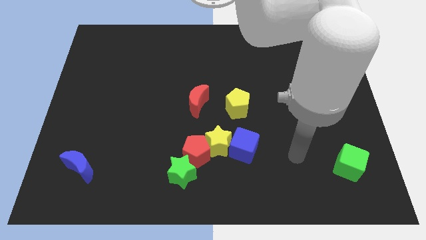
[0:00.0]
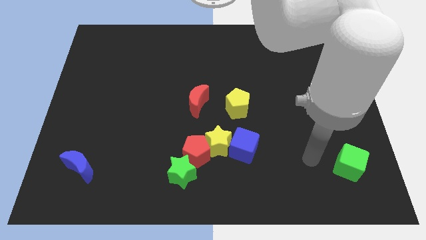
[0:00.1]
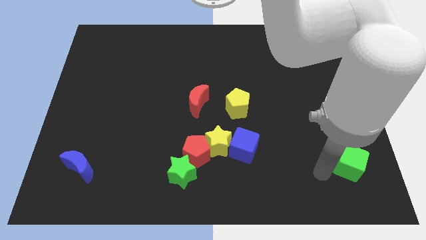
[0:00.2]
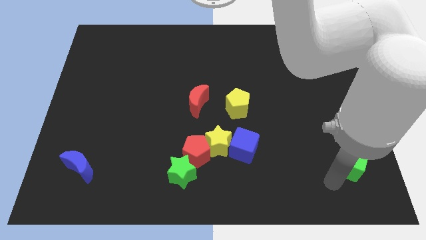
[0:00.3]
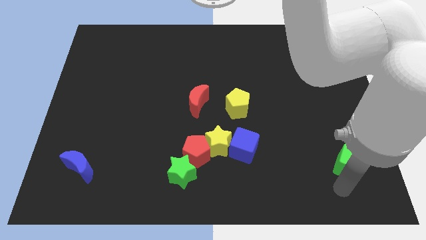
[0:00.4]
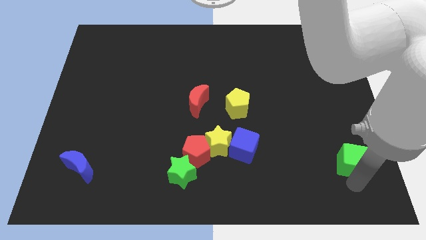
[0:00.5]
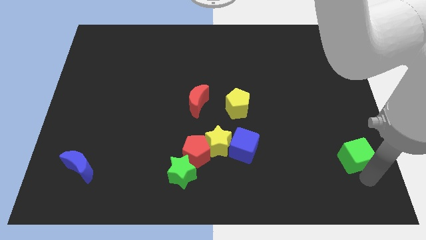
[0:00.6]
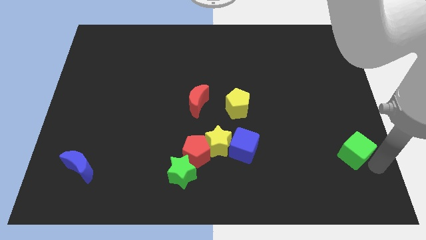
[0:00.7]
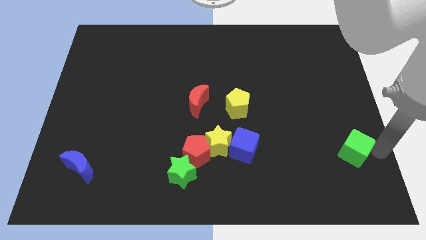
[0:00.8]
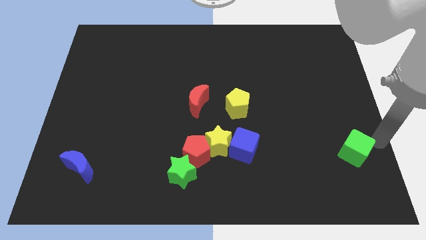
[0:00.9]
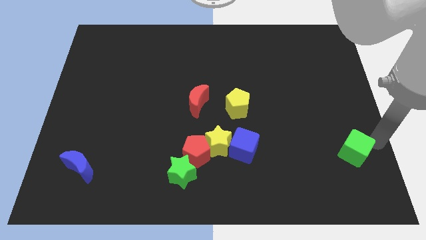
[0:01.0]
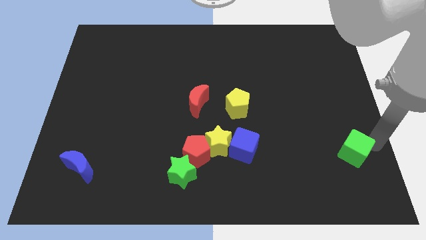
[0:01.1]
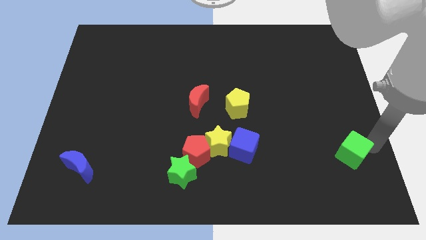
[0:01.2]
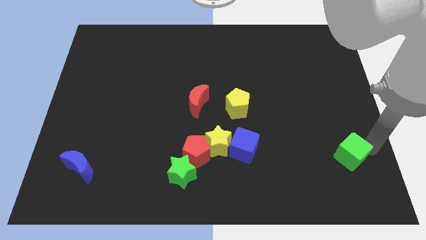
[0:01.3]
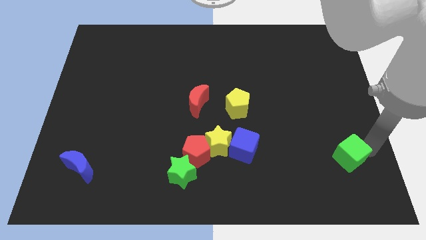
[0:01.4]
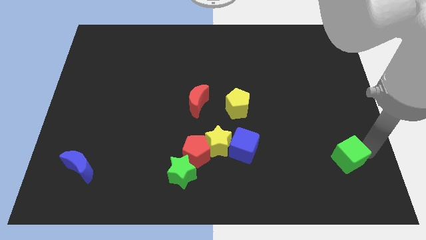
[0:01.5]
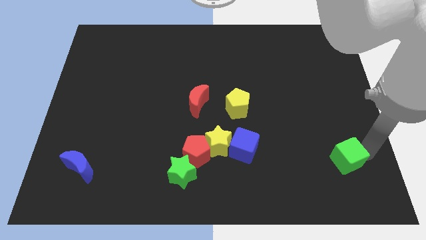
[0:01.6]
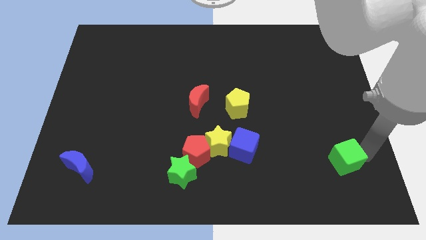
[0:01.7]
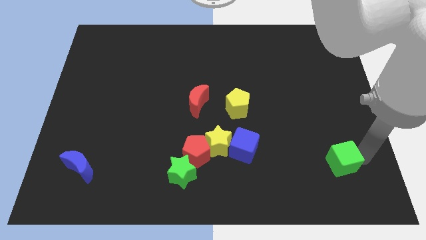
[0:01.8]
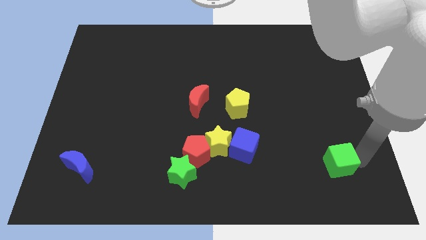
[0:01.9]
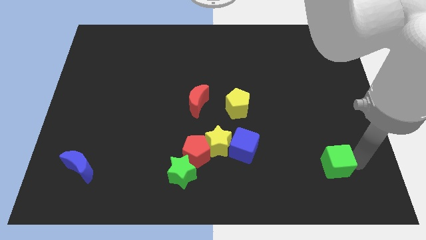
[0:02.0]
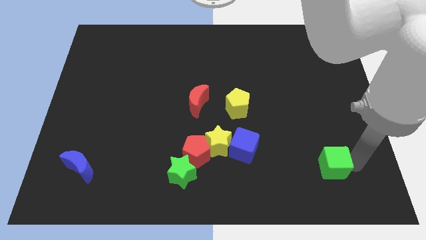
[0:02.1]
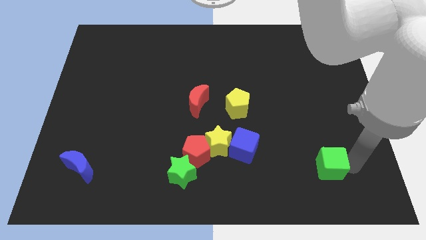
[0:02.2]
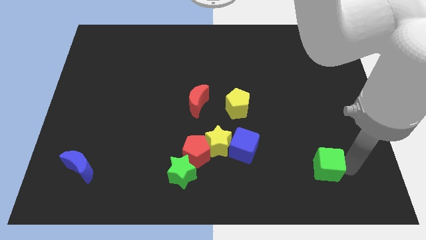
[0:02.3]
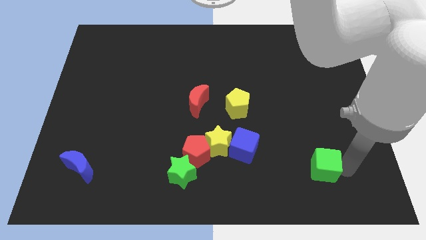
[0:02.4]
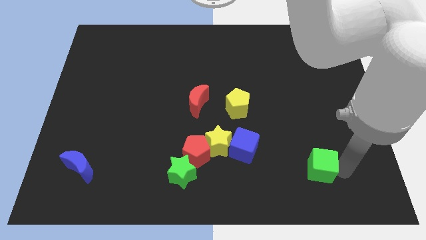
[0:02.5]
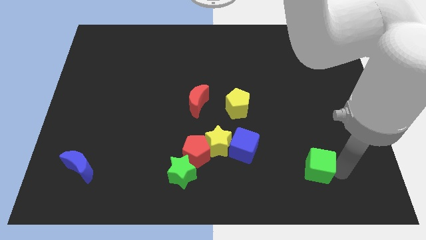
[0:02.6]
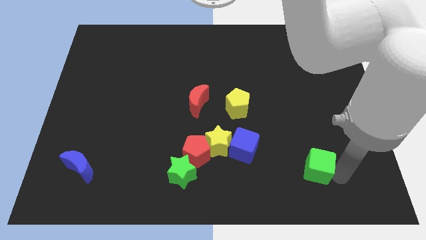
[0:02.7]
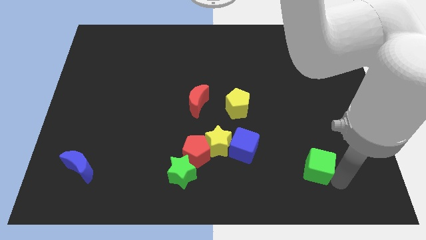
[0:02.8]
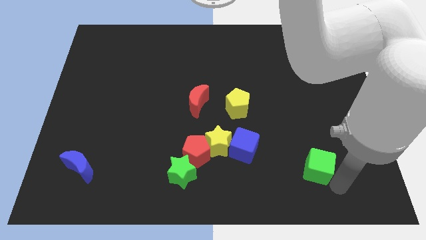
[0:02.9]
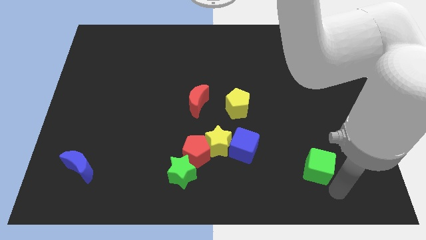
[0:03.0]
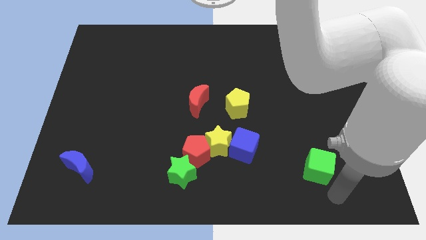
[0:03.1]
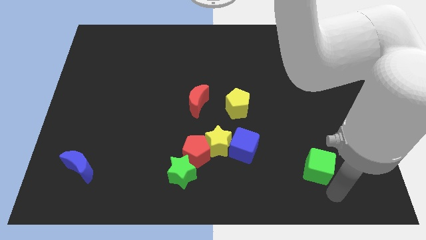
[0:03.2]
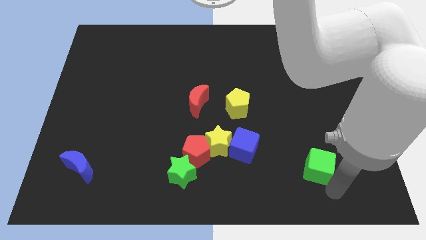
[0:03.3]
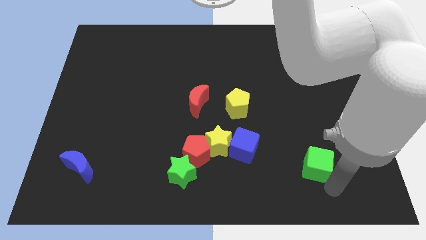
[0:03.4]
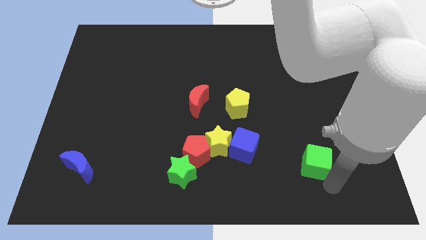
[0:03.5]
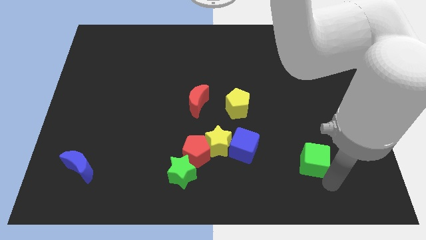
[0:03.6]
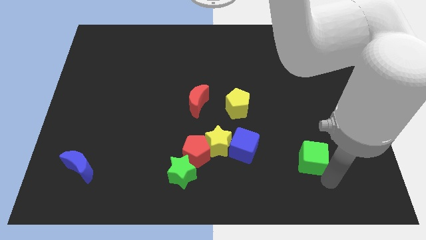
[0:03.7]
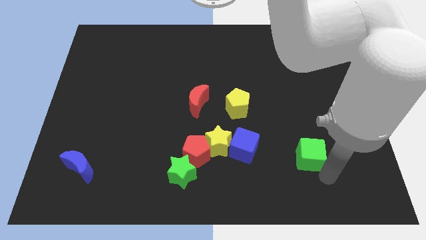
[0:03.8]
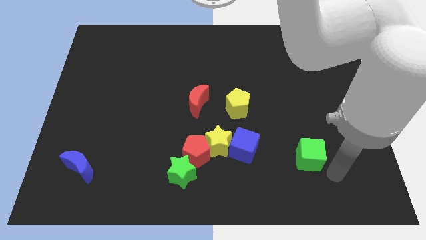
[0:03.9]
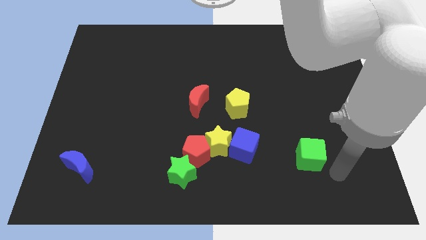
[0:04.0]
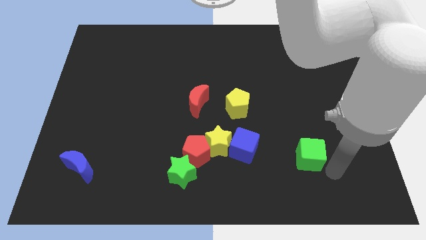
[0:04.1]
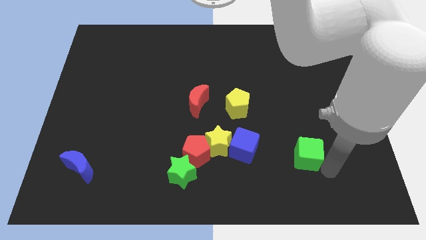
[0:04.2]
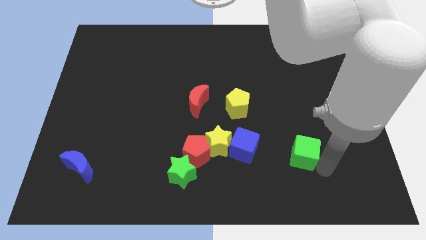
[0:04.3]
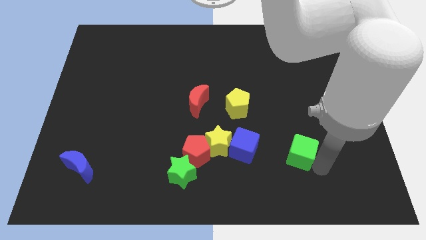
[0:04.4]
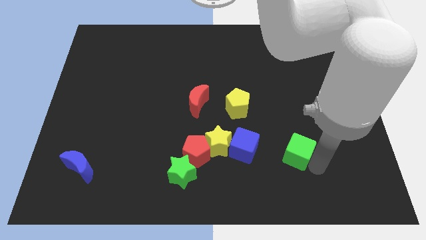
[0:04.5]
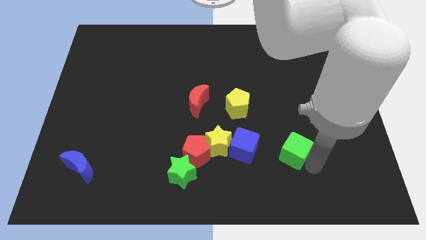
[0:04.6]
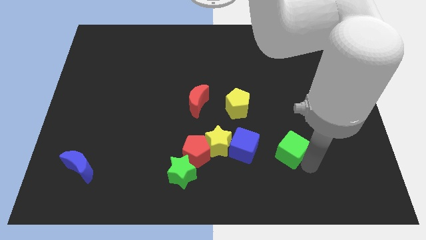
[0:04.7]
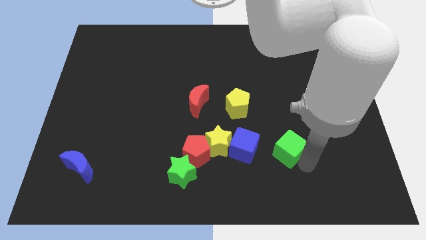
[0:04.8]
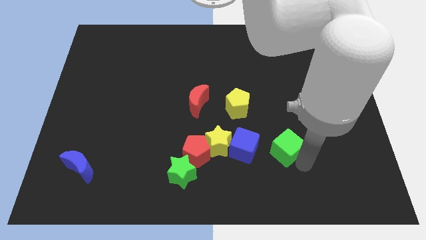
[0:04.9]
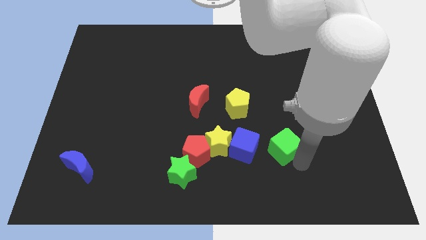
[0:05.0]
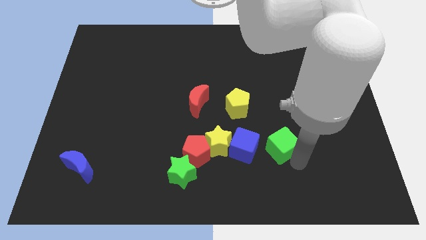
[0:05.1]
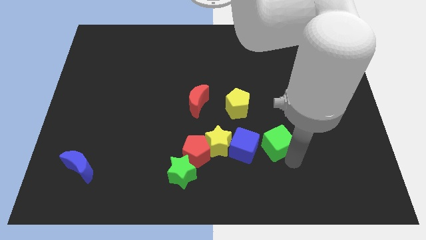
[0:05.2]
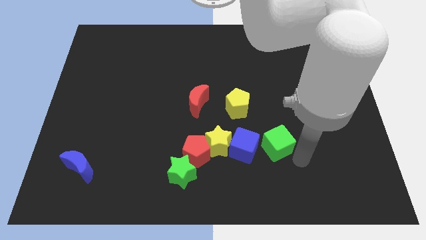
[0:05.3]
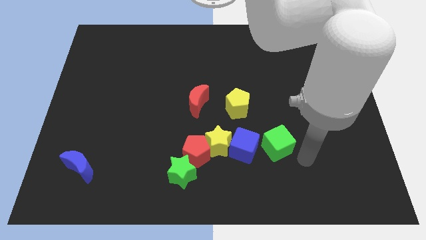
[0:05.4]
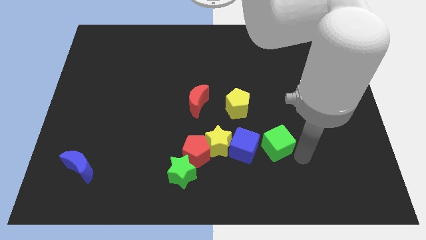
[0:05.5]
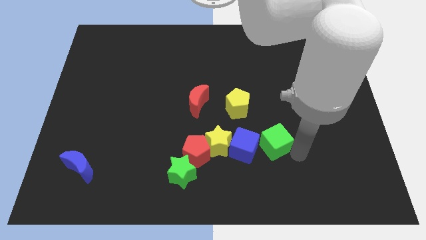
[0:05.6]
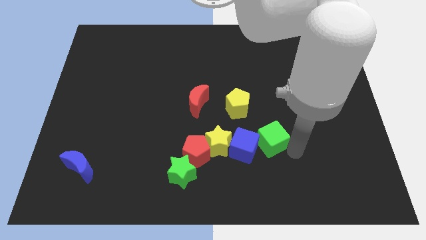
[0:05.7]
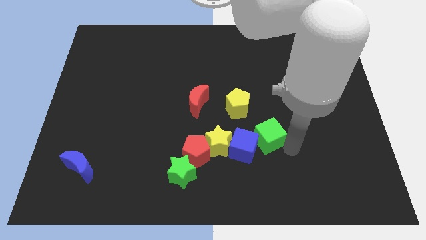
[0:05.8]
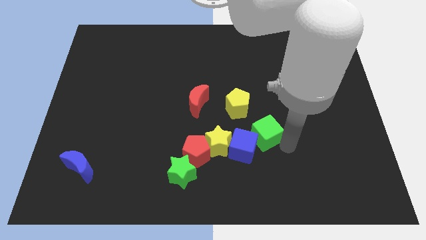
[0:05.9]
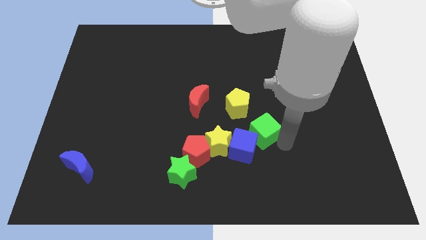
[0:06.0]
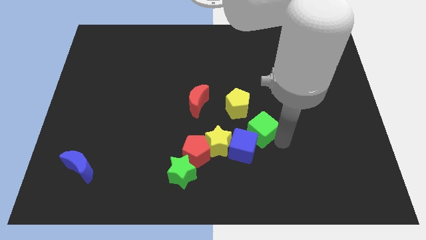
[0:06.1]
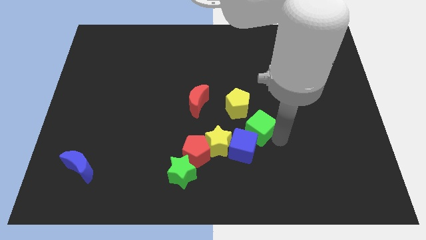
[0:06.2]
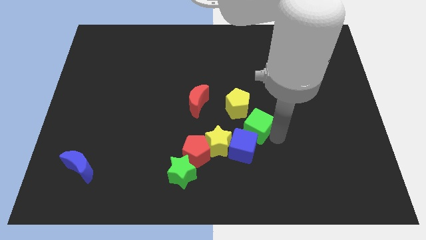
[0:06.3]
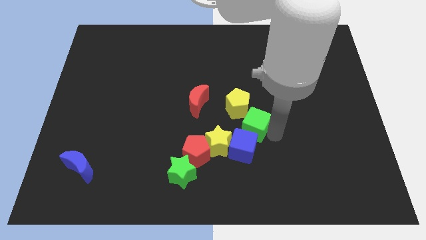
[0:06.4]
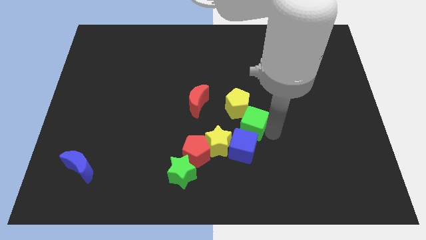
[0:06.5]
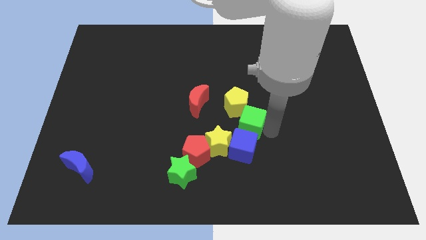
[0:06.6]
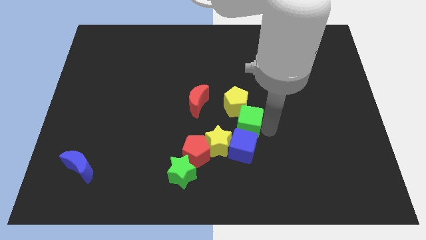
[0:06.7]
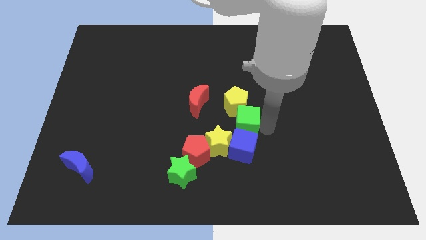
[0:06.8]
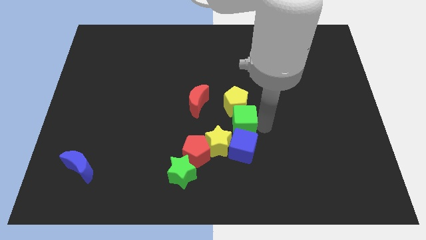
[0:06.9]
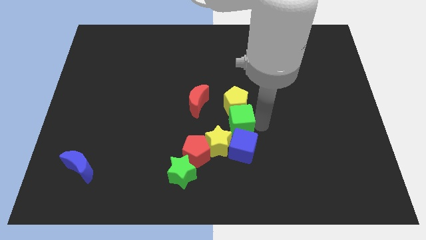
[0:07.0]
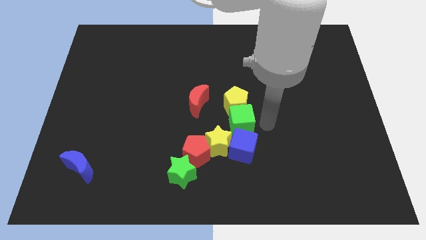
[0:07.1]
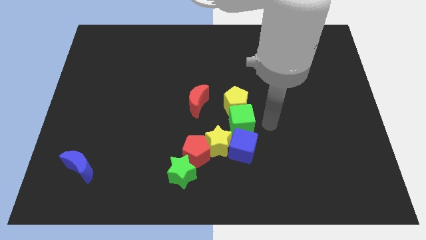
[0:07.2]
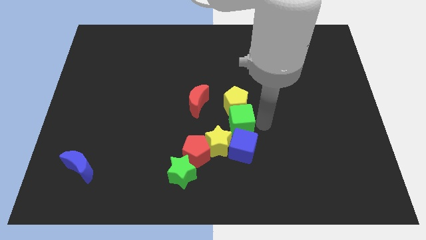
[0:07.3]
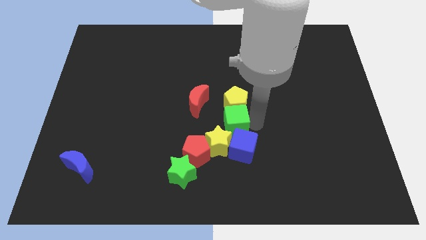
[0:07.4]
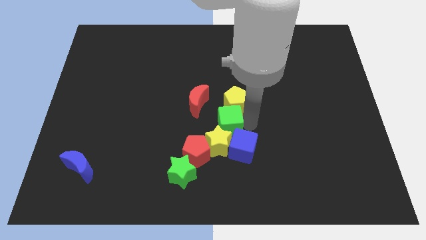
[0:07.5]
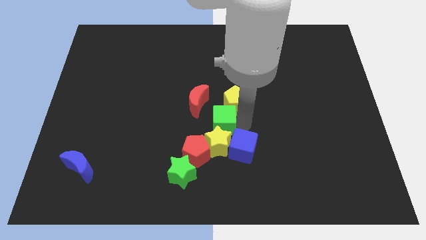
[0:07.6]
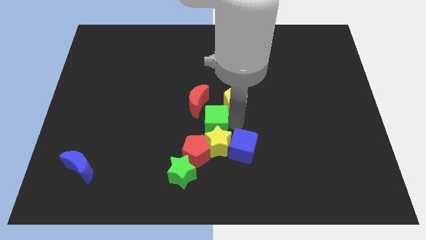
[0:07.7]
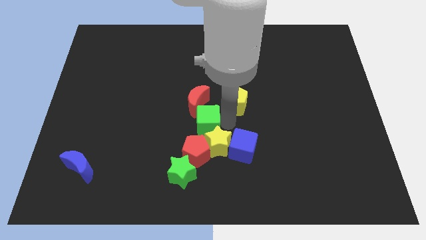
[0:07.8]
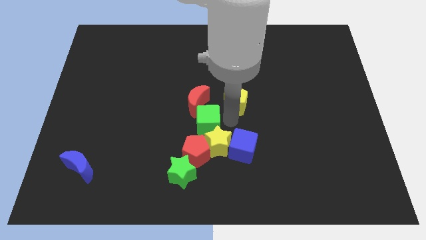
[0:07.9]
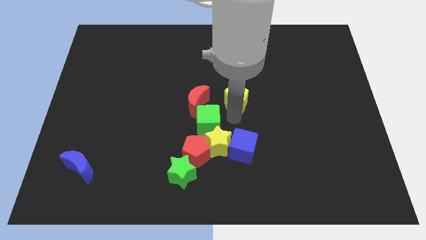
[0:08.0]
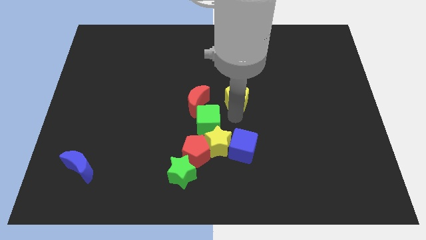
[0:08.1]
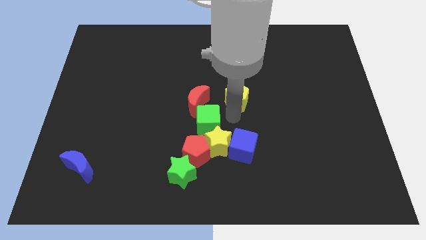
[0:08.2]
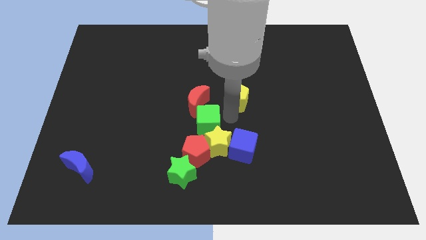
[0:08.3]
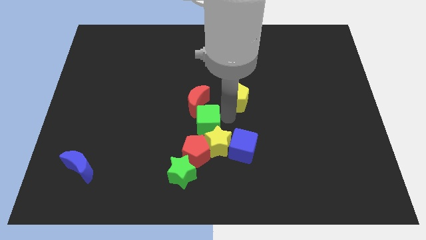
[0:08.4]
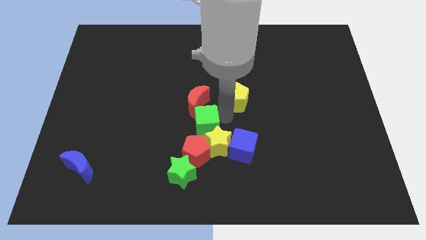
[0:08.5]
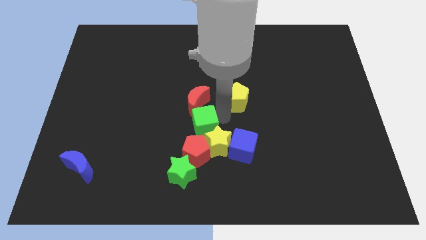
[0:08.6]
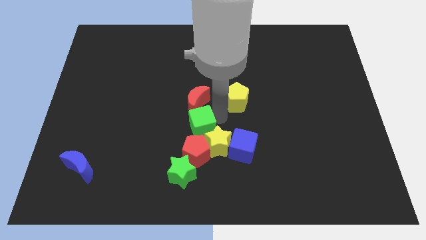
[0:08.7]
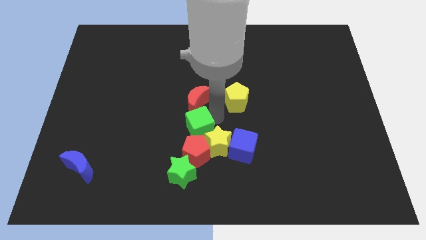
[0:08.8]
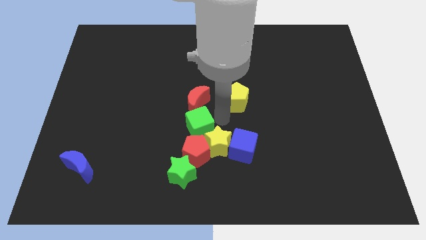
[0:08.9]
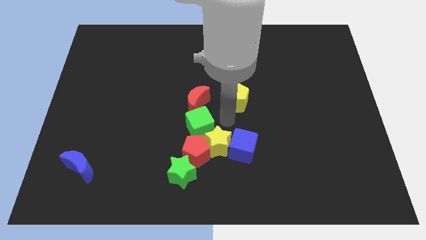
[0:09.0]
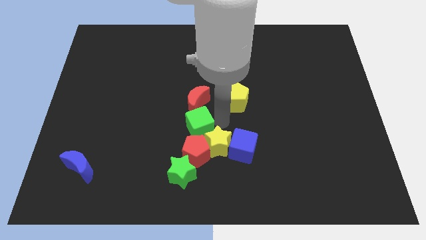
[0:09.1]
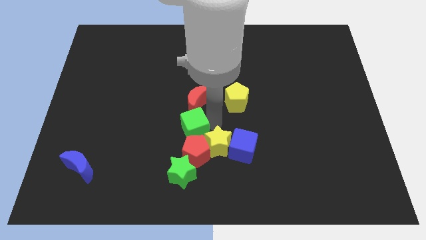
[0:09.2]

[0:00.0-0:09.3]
move the green cube to the top left of the red pentagon
